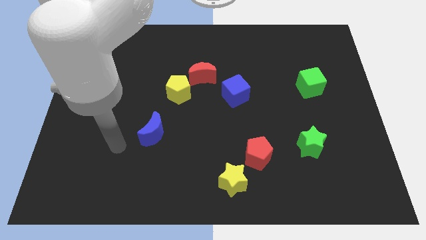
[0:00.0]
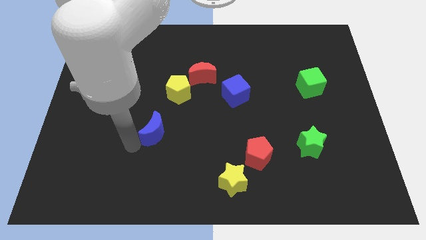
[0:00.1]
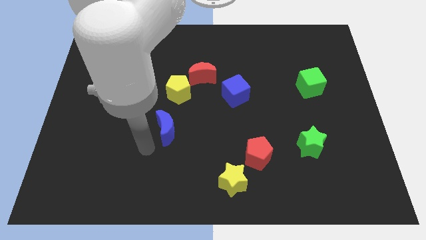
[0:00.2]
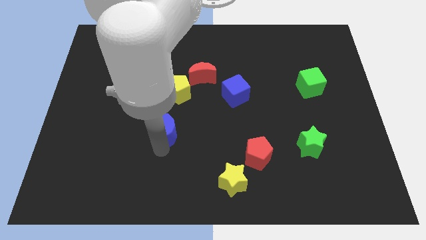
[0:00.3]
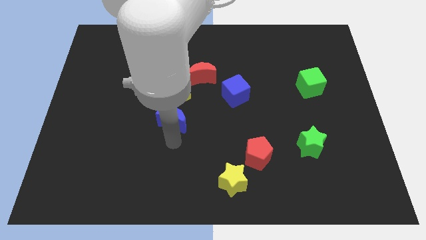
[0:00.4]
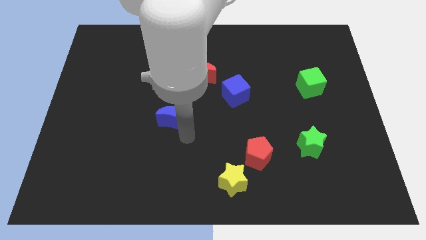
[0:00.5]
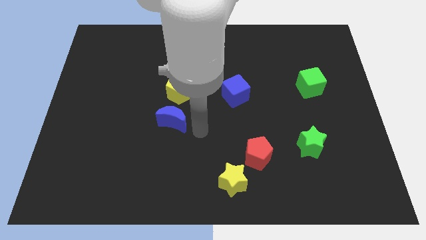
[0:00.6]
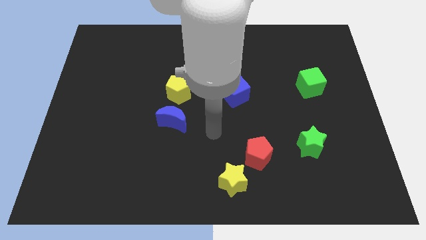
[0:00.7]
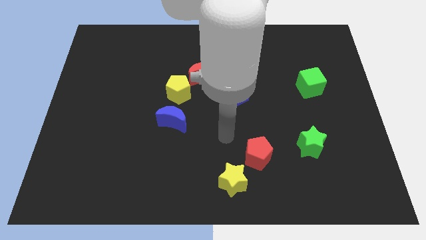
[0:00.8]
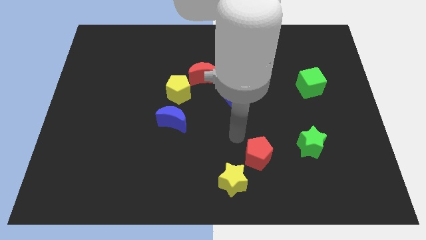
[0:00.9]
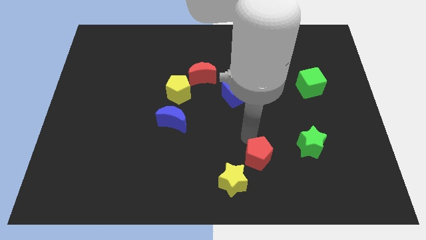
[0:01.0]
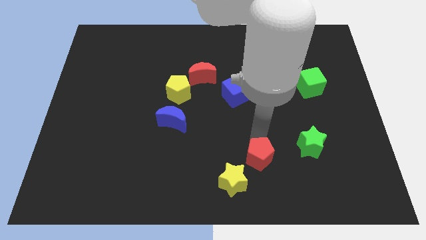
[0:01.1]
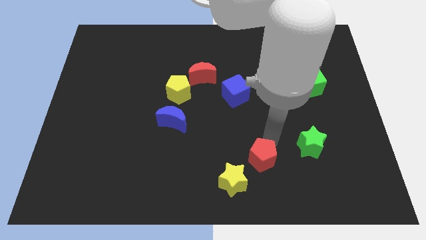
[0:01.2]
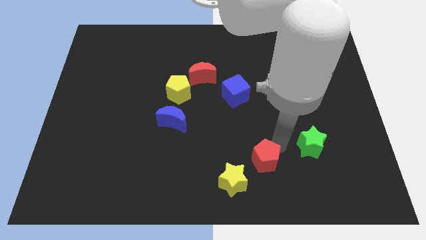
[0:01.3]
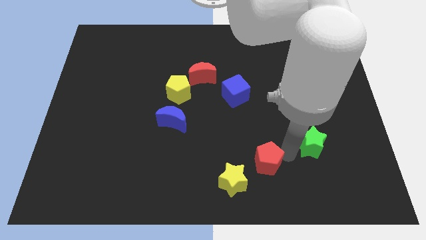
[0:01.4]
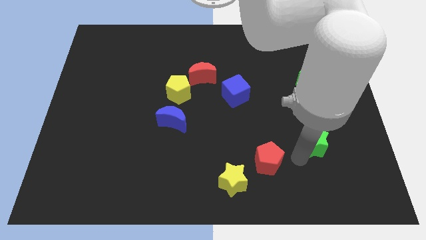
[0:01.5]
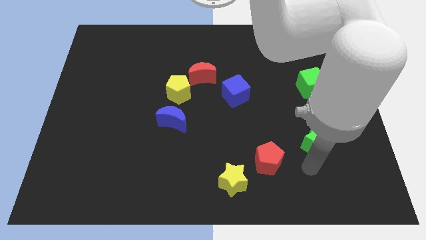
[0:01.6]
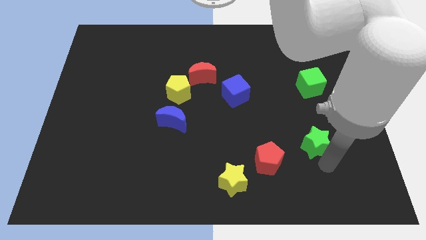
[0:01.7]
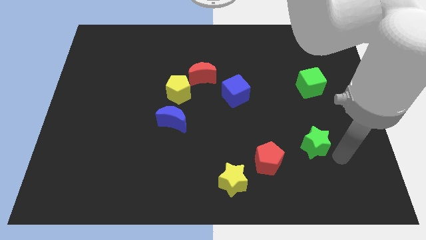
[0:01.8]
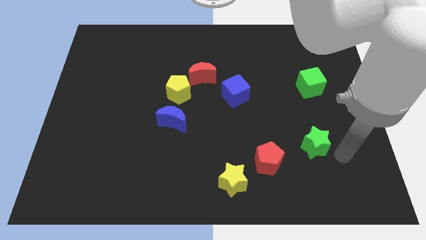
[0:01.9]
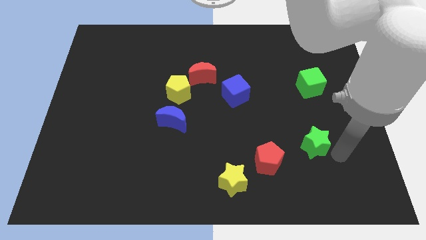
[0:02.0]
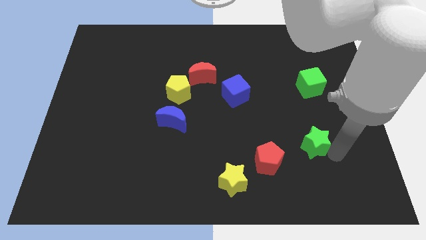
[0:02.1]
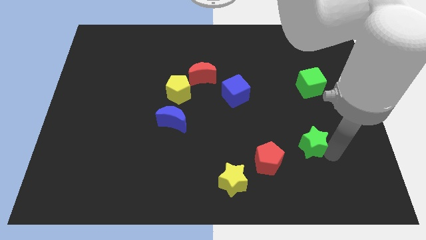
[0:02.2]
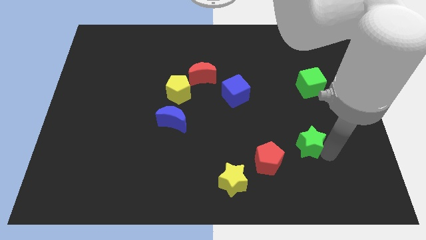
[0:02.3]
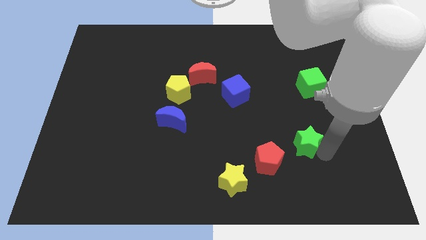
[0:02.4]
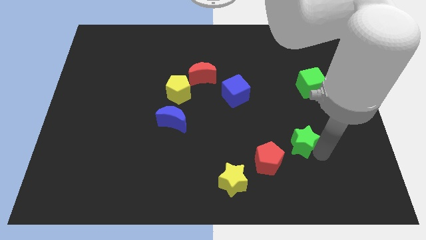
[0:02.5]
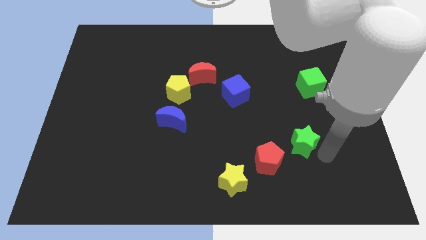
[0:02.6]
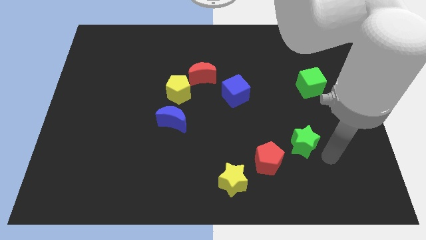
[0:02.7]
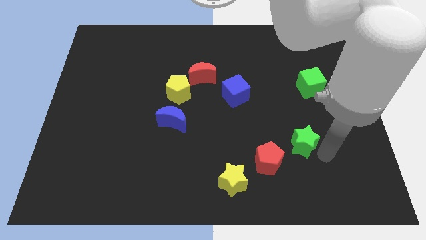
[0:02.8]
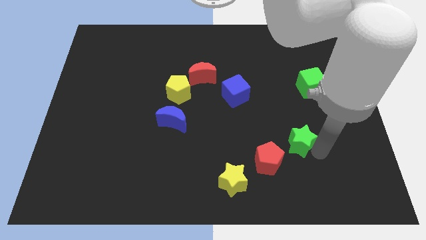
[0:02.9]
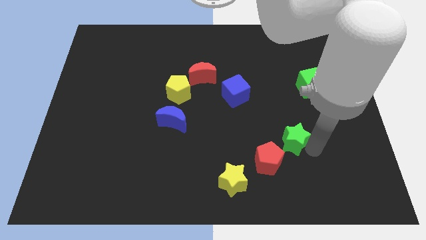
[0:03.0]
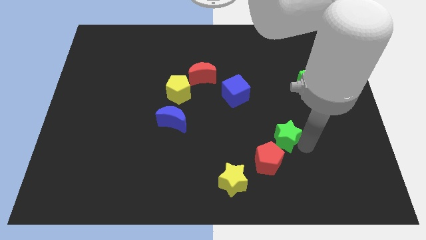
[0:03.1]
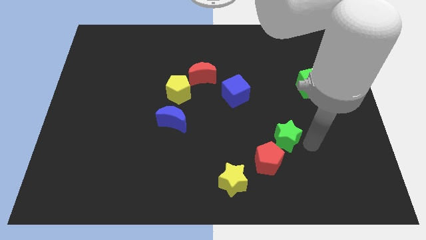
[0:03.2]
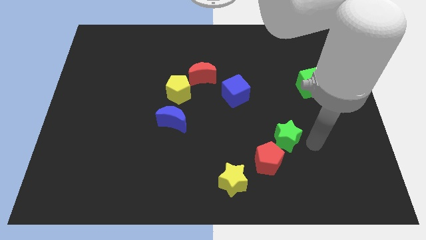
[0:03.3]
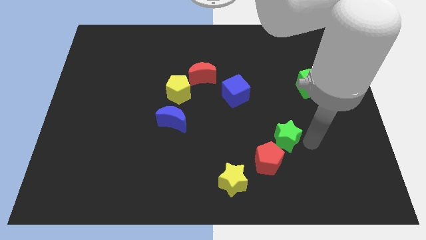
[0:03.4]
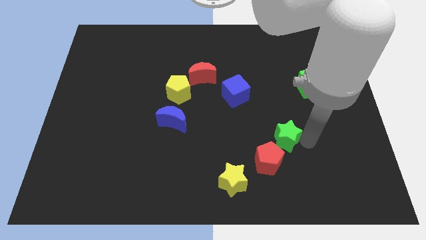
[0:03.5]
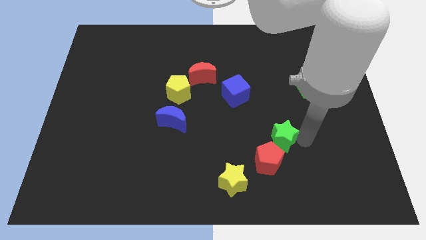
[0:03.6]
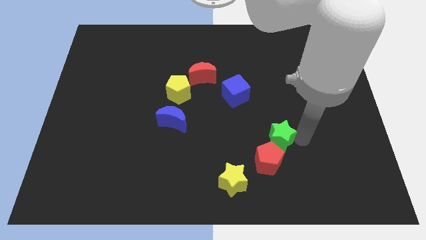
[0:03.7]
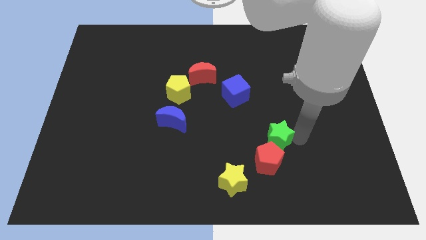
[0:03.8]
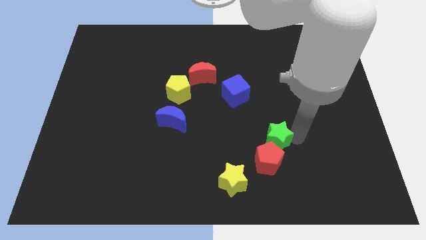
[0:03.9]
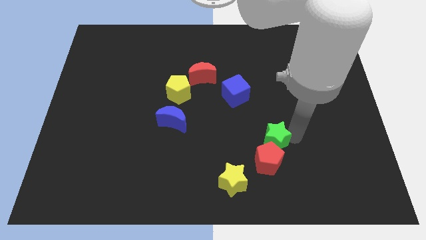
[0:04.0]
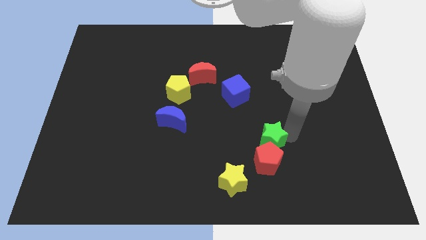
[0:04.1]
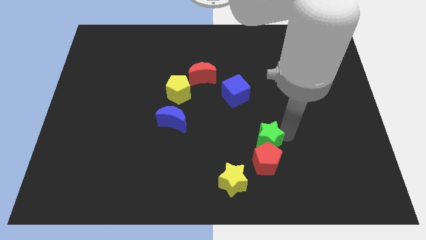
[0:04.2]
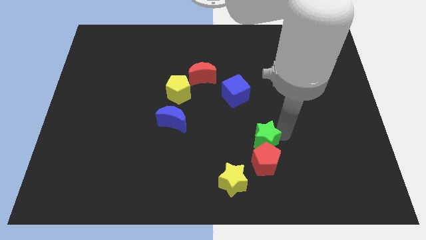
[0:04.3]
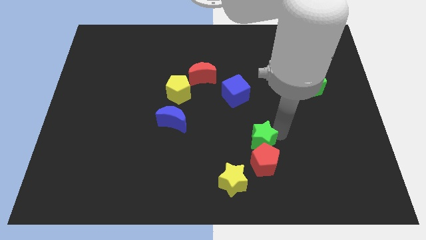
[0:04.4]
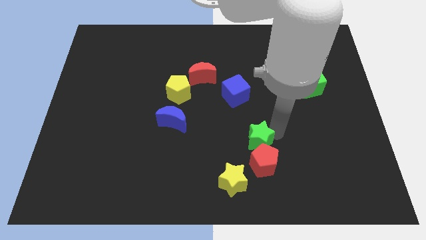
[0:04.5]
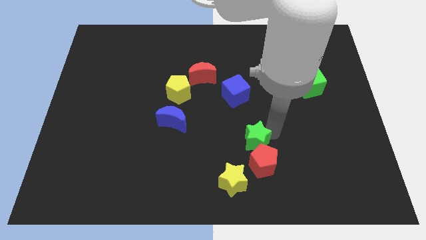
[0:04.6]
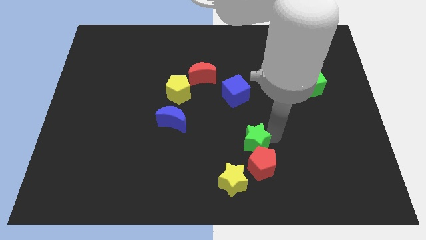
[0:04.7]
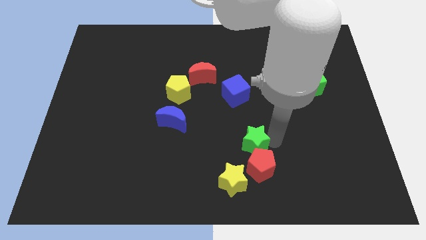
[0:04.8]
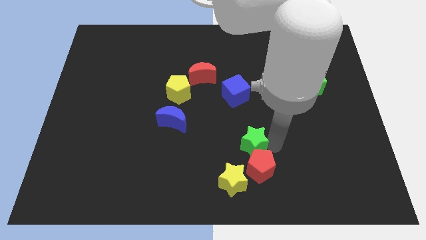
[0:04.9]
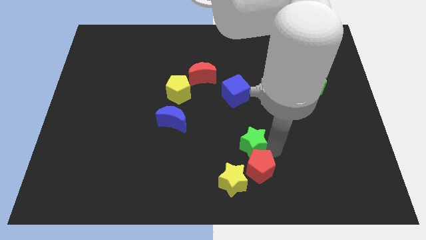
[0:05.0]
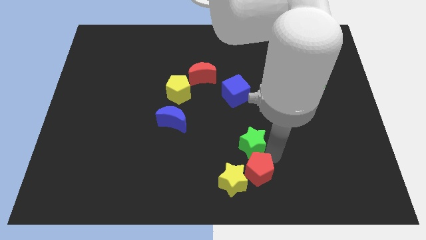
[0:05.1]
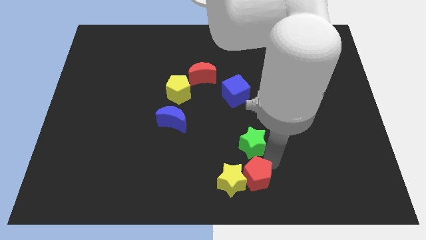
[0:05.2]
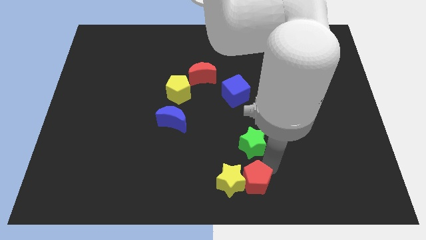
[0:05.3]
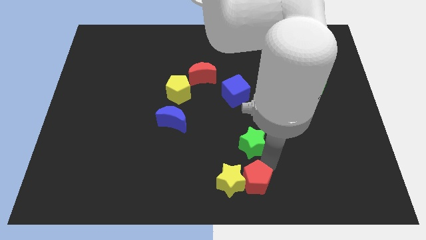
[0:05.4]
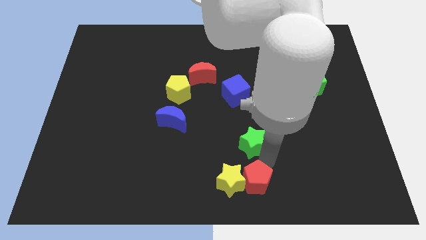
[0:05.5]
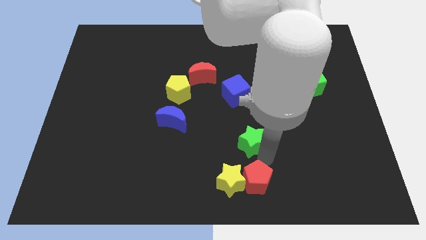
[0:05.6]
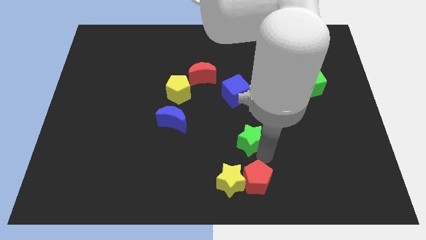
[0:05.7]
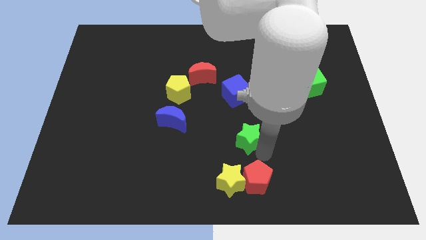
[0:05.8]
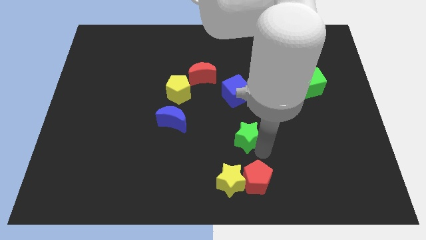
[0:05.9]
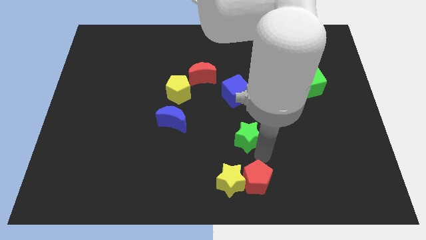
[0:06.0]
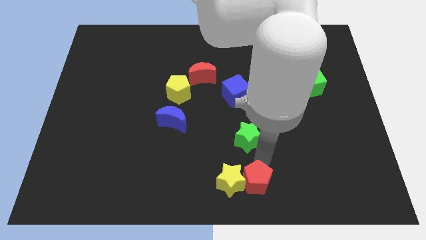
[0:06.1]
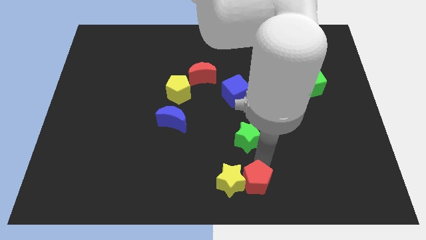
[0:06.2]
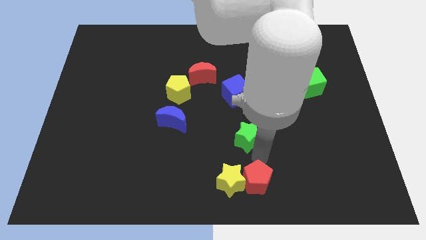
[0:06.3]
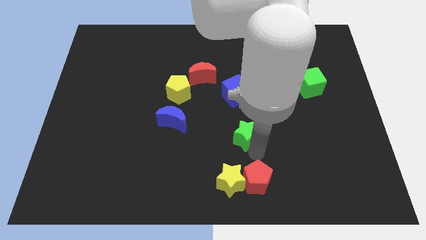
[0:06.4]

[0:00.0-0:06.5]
put the green star to the center of the board
